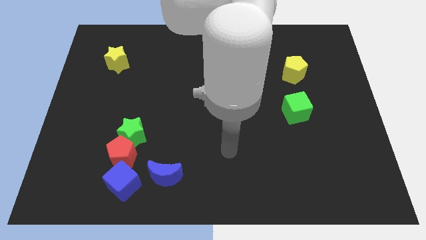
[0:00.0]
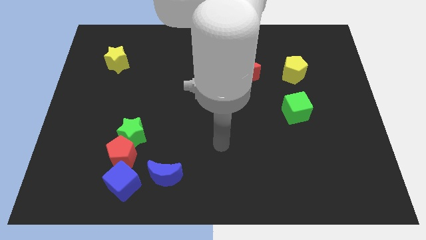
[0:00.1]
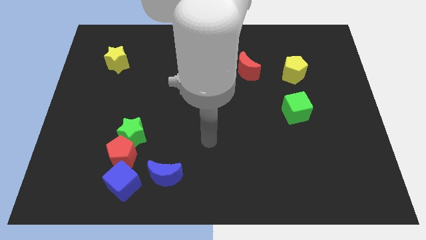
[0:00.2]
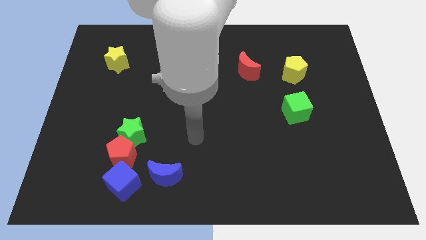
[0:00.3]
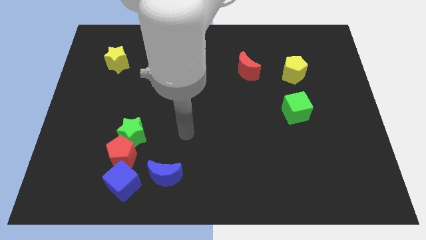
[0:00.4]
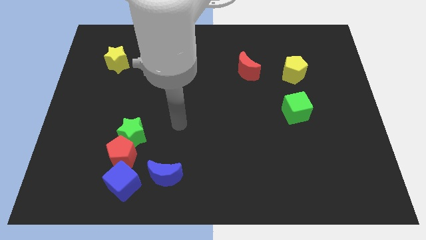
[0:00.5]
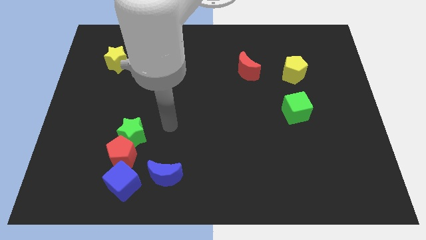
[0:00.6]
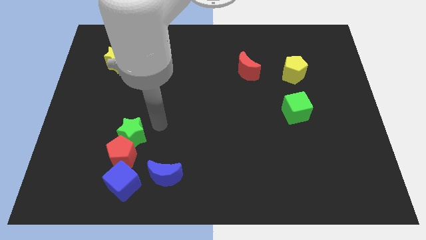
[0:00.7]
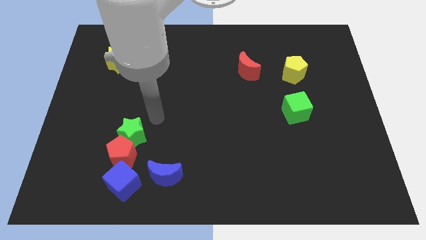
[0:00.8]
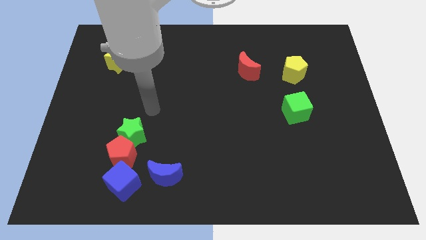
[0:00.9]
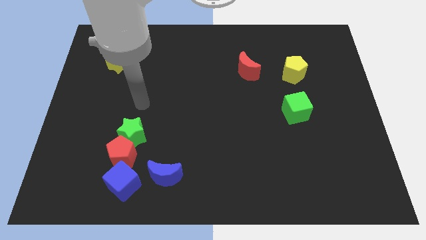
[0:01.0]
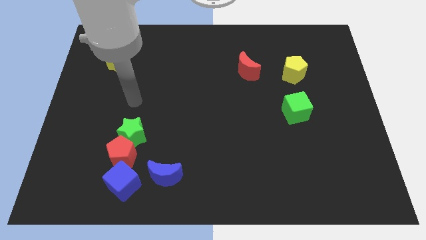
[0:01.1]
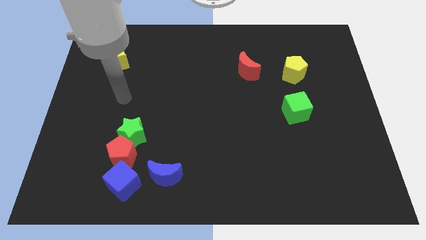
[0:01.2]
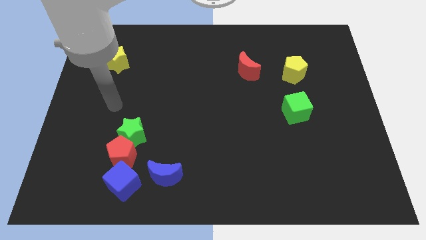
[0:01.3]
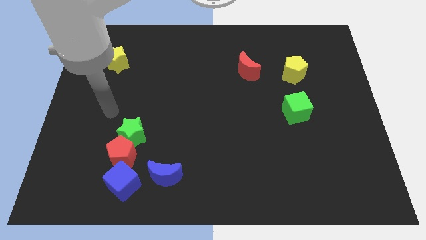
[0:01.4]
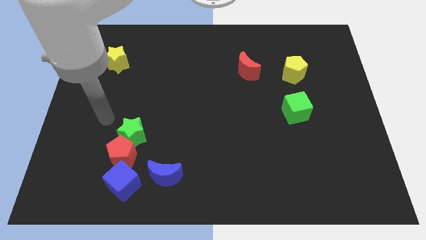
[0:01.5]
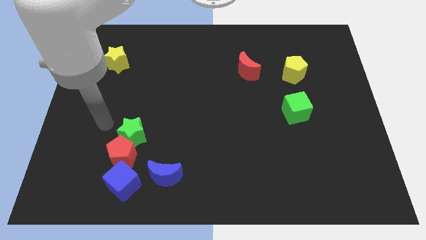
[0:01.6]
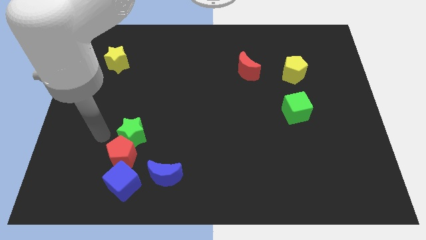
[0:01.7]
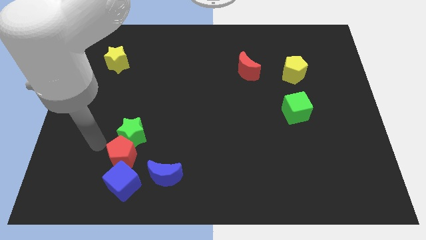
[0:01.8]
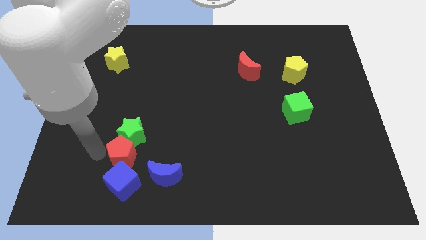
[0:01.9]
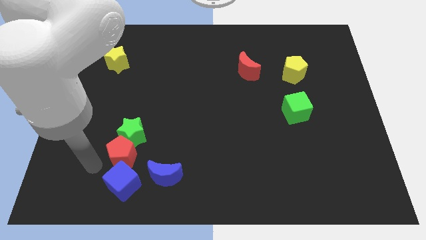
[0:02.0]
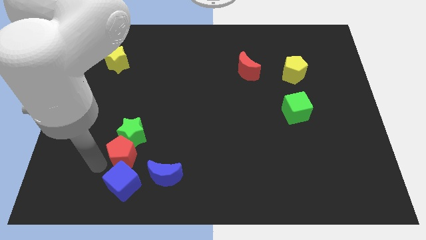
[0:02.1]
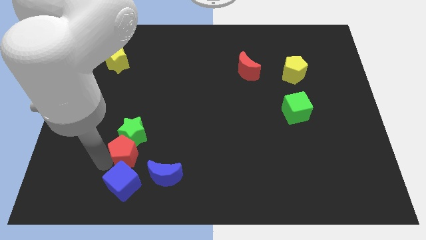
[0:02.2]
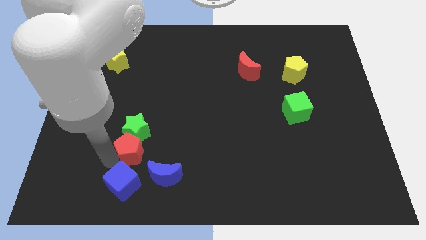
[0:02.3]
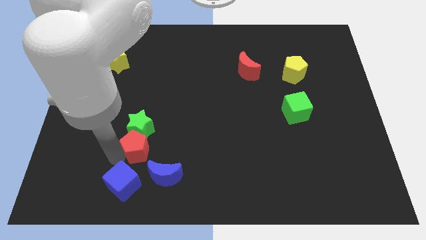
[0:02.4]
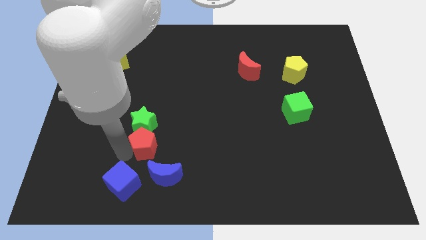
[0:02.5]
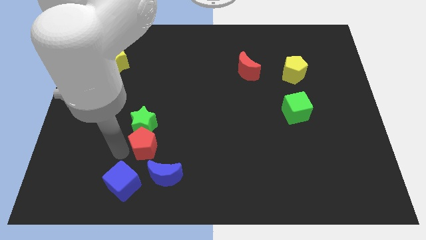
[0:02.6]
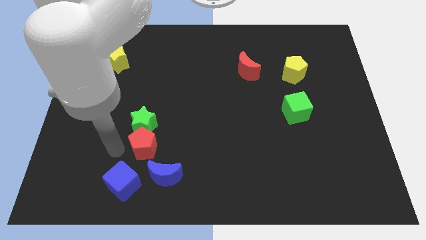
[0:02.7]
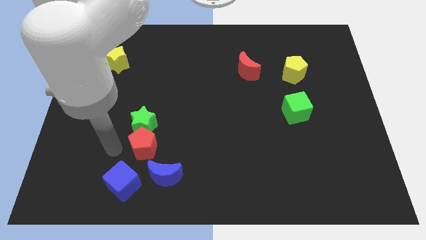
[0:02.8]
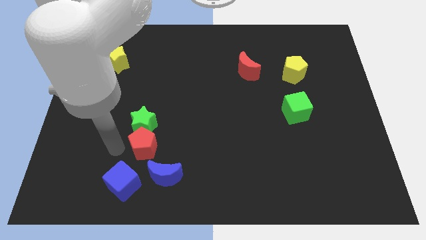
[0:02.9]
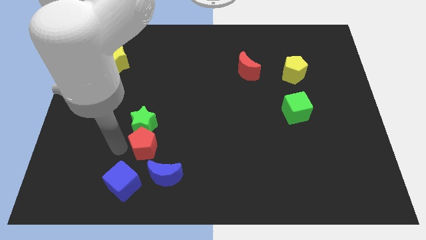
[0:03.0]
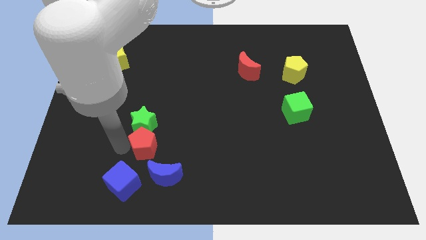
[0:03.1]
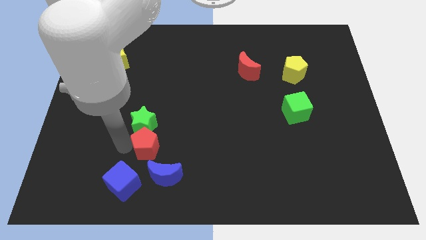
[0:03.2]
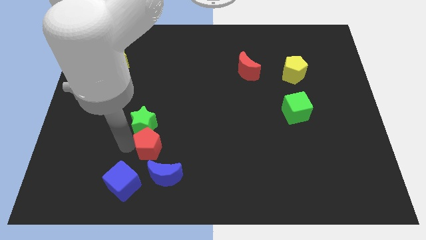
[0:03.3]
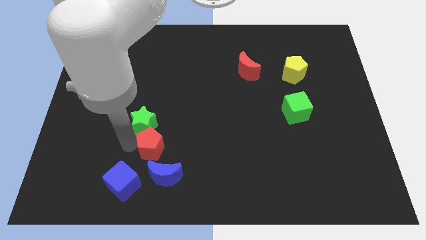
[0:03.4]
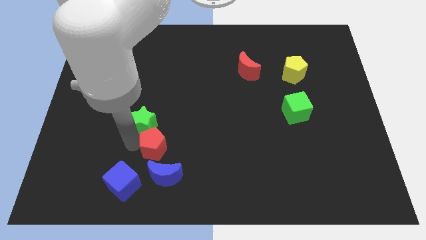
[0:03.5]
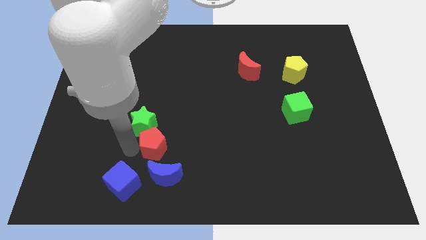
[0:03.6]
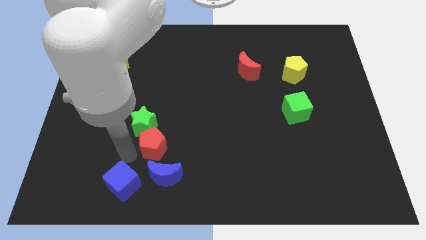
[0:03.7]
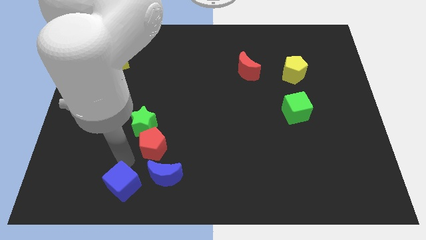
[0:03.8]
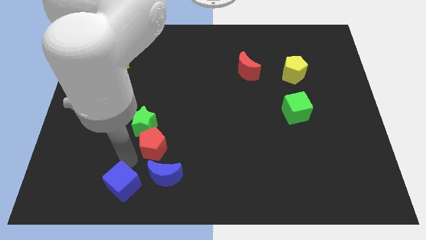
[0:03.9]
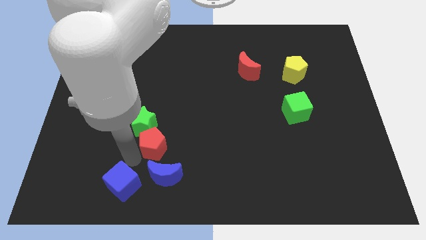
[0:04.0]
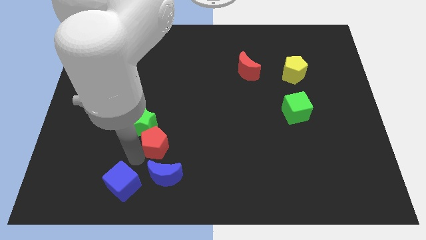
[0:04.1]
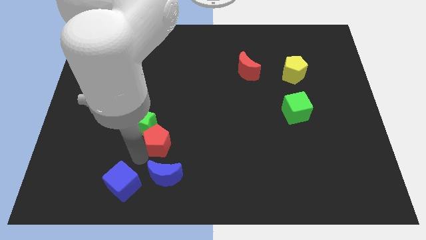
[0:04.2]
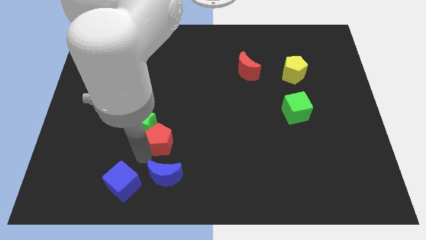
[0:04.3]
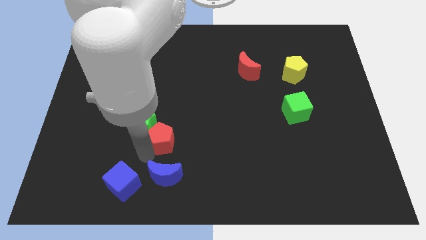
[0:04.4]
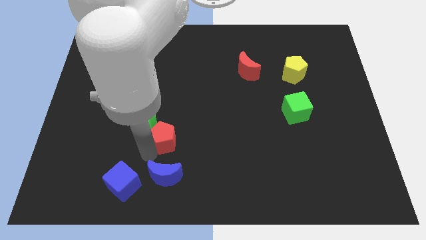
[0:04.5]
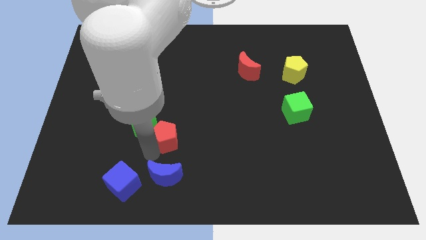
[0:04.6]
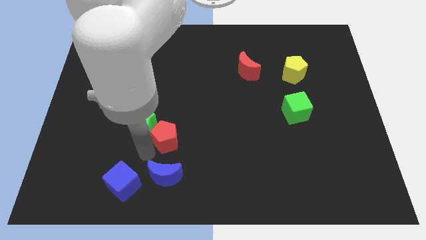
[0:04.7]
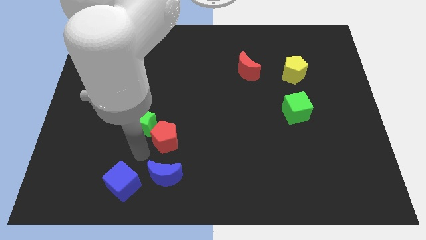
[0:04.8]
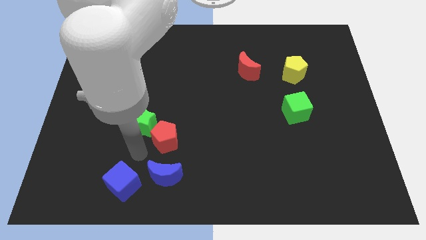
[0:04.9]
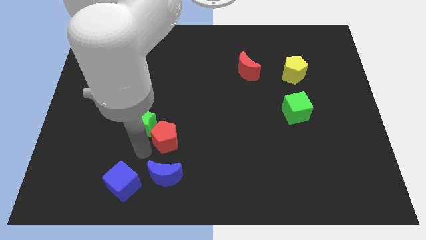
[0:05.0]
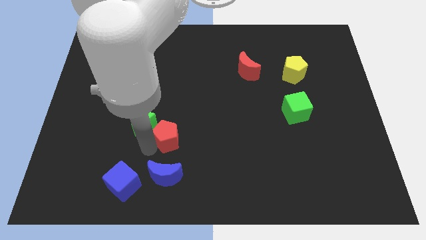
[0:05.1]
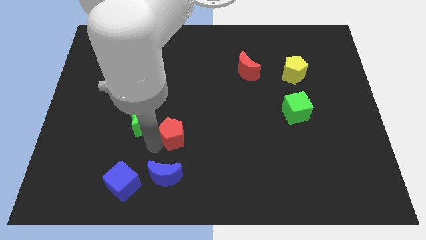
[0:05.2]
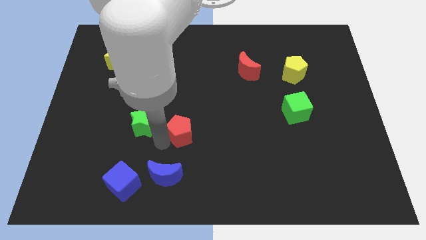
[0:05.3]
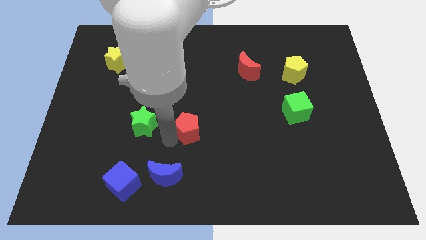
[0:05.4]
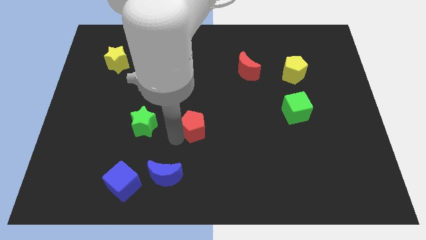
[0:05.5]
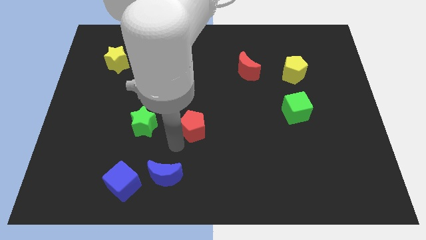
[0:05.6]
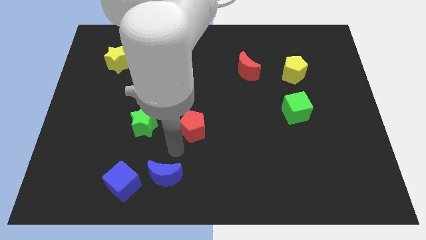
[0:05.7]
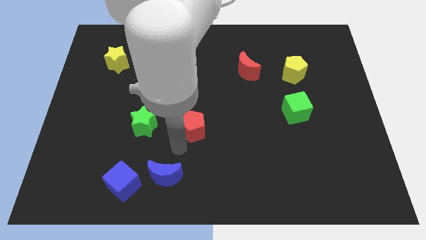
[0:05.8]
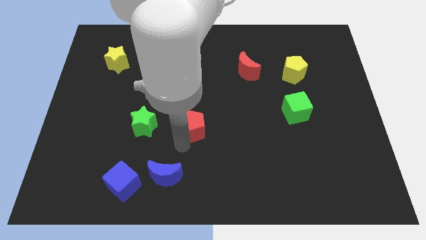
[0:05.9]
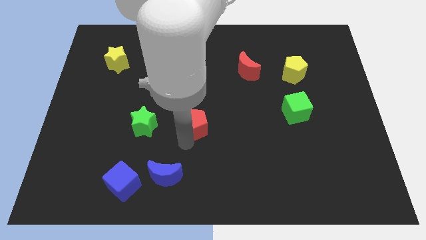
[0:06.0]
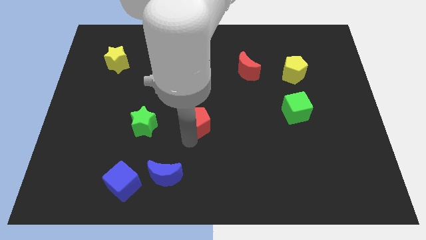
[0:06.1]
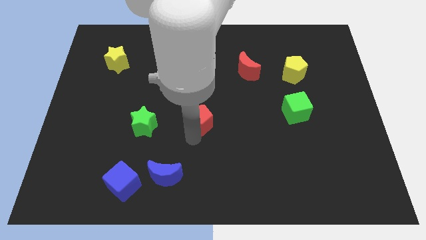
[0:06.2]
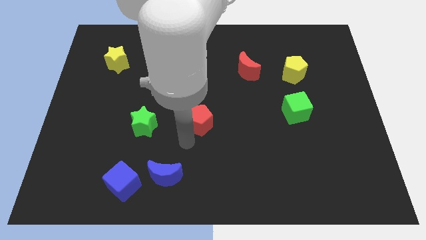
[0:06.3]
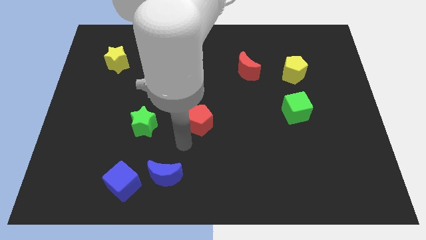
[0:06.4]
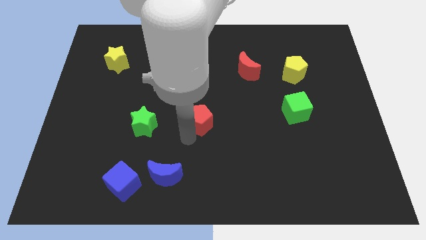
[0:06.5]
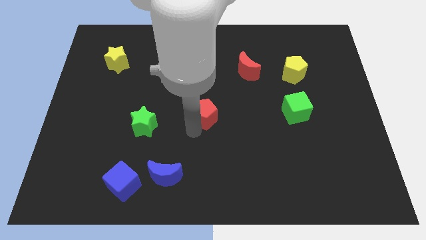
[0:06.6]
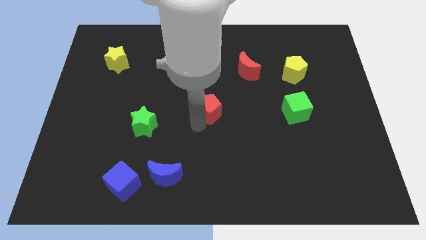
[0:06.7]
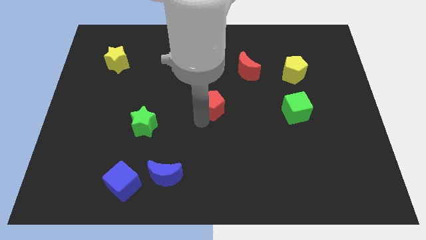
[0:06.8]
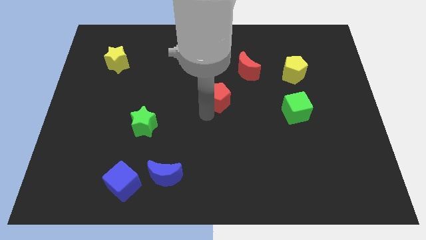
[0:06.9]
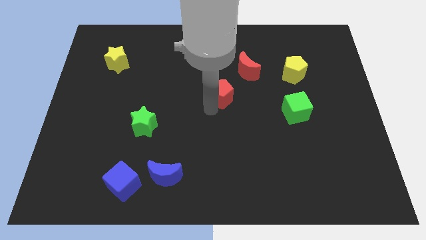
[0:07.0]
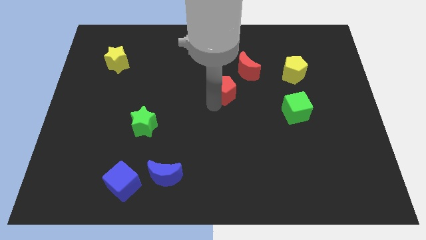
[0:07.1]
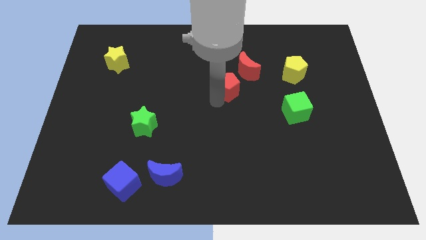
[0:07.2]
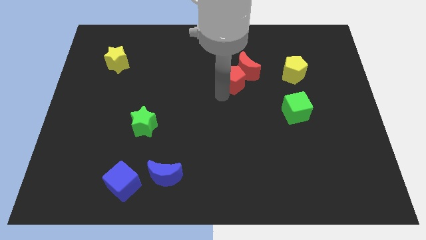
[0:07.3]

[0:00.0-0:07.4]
push the red pentagon to the red moon
